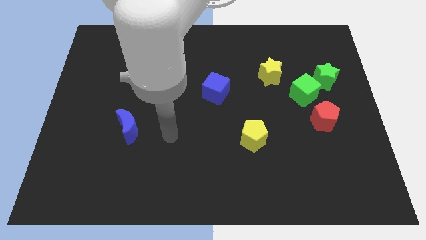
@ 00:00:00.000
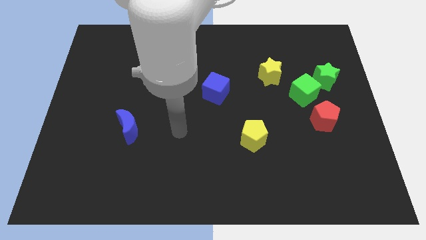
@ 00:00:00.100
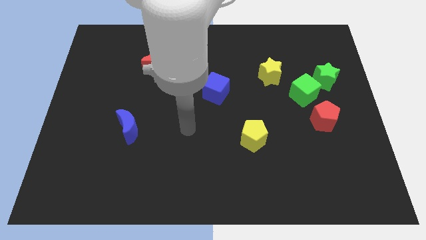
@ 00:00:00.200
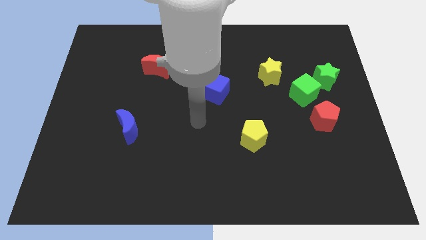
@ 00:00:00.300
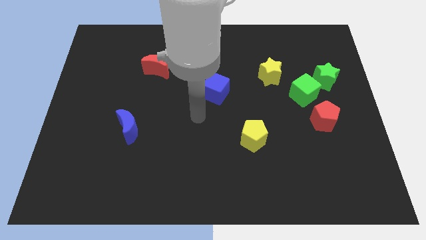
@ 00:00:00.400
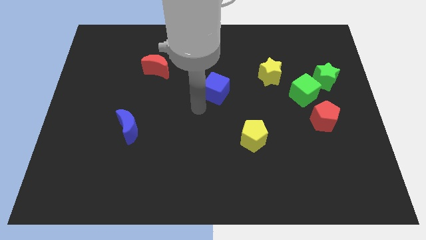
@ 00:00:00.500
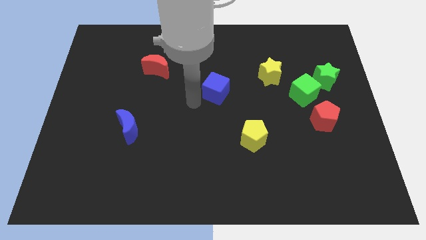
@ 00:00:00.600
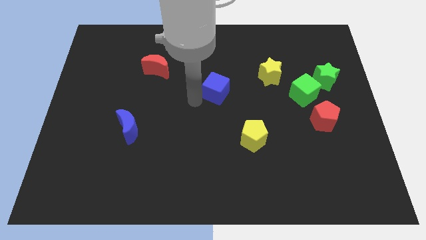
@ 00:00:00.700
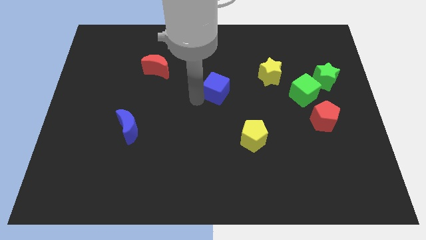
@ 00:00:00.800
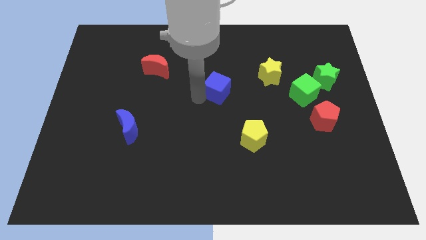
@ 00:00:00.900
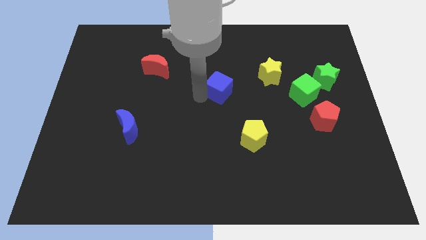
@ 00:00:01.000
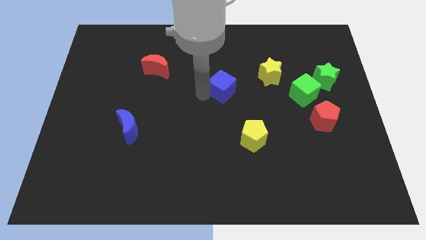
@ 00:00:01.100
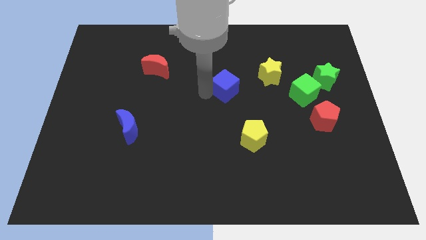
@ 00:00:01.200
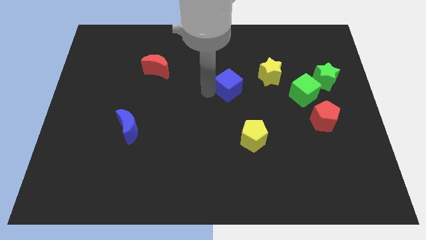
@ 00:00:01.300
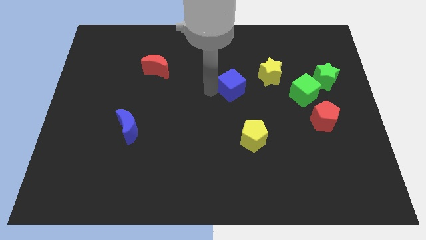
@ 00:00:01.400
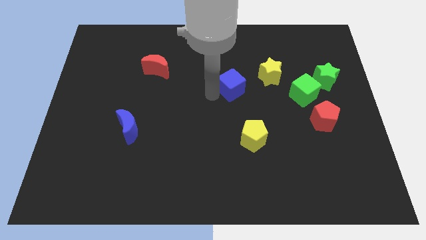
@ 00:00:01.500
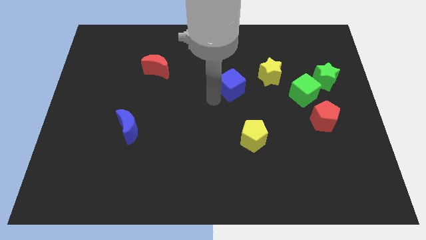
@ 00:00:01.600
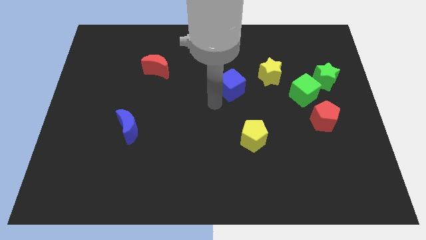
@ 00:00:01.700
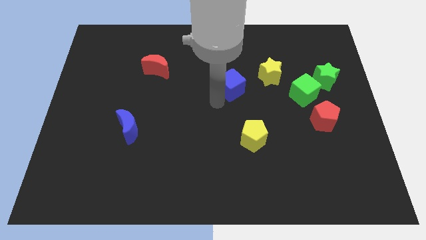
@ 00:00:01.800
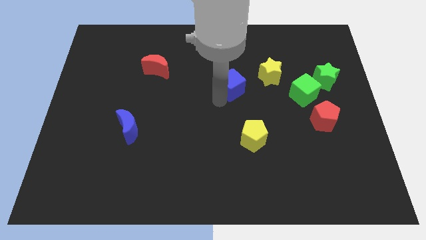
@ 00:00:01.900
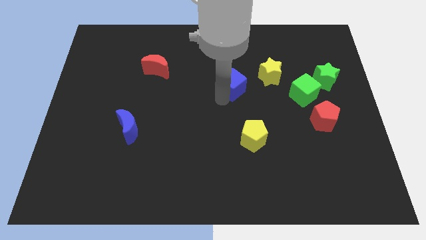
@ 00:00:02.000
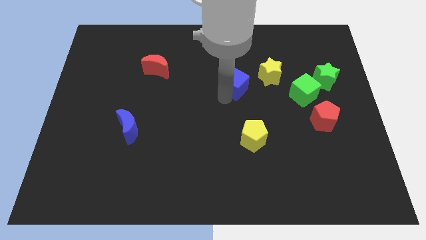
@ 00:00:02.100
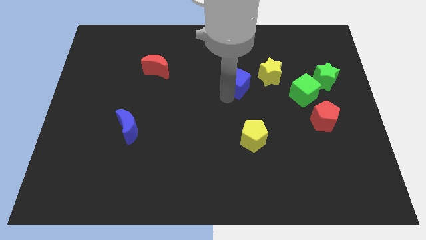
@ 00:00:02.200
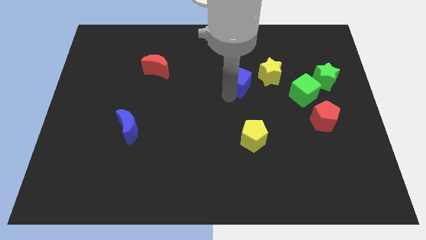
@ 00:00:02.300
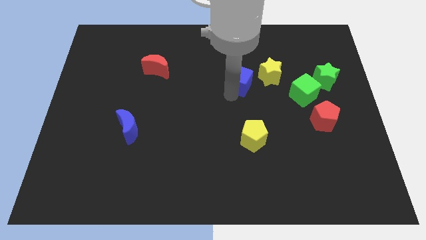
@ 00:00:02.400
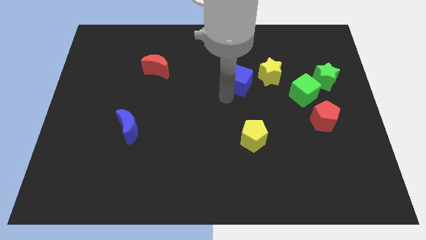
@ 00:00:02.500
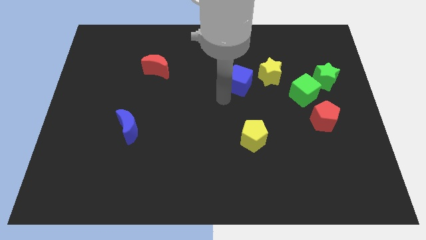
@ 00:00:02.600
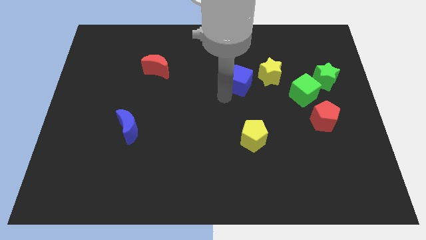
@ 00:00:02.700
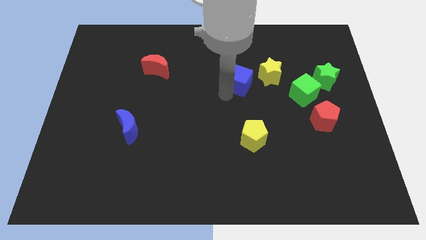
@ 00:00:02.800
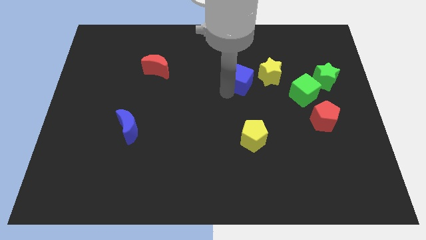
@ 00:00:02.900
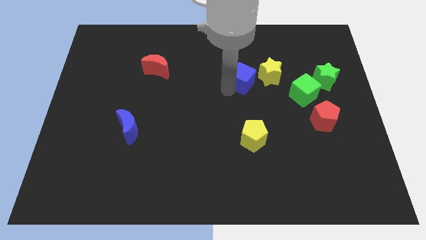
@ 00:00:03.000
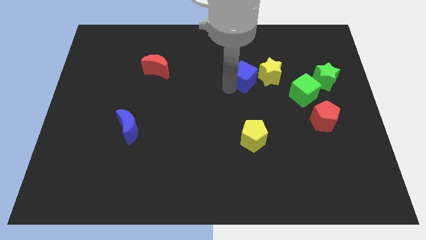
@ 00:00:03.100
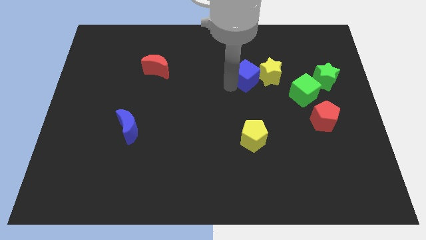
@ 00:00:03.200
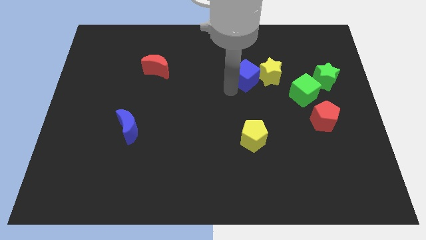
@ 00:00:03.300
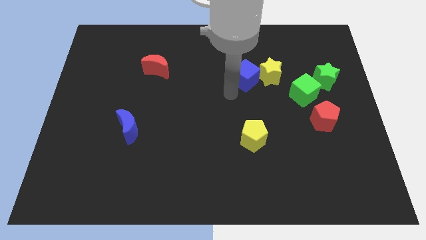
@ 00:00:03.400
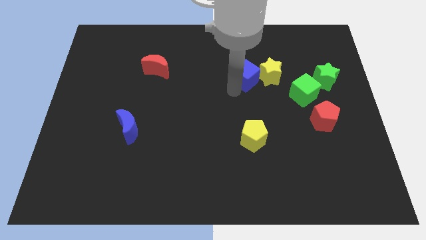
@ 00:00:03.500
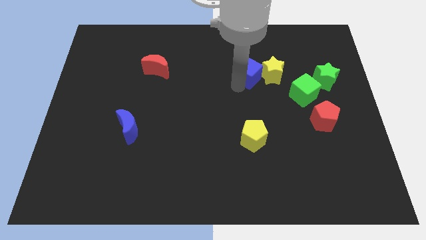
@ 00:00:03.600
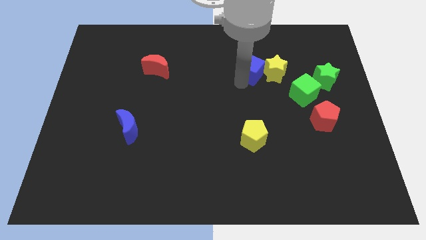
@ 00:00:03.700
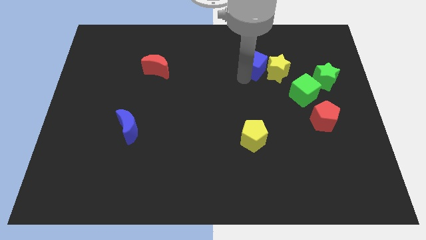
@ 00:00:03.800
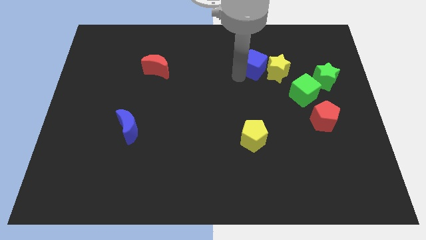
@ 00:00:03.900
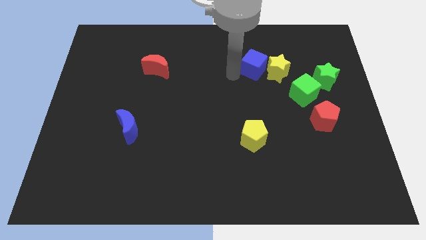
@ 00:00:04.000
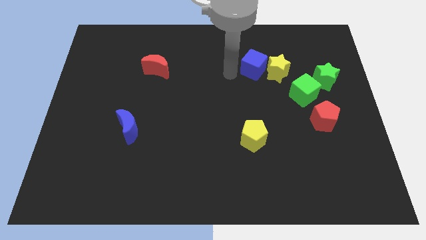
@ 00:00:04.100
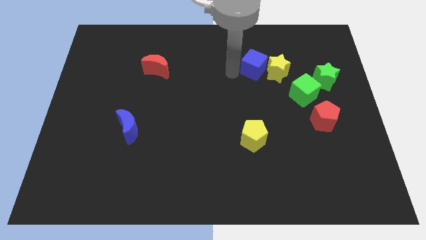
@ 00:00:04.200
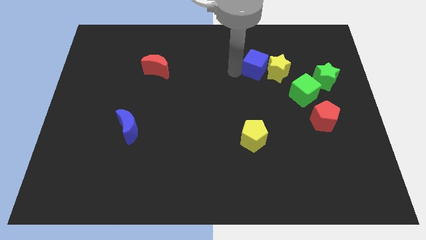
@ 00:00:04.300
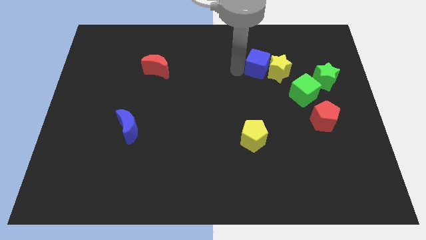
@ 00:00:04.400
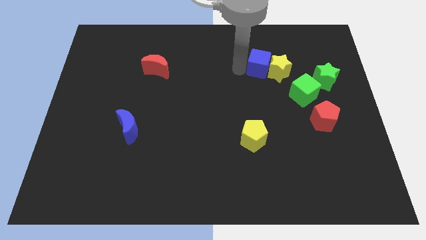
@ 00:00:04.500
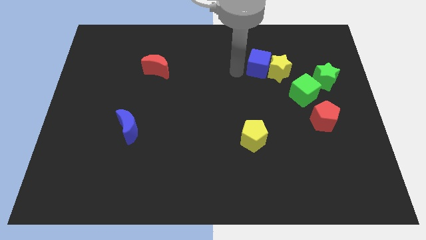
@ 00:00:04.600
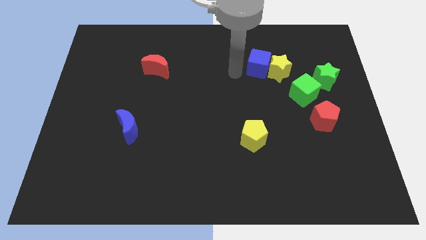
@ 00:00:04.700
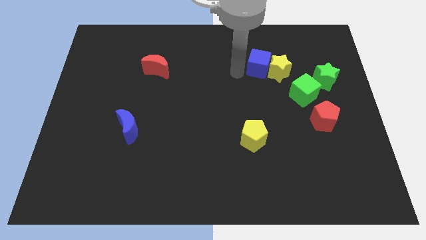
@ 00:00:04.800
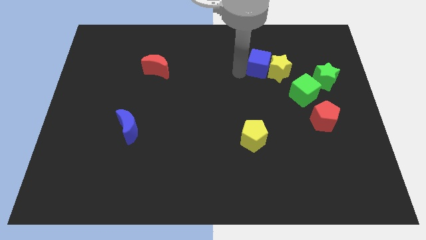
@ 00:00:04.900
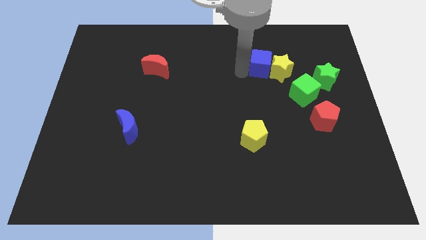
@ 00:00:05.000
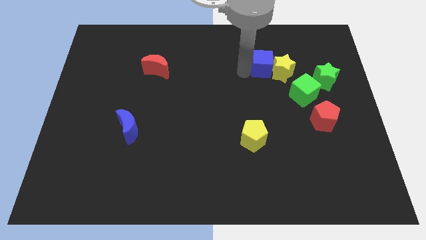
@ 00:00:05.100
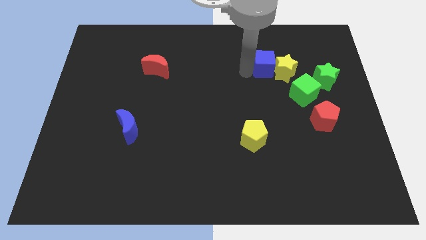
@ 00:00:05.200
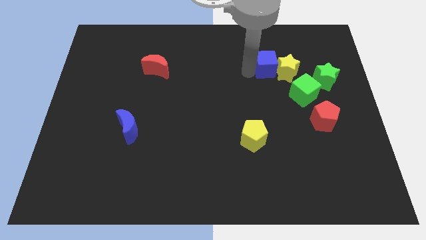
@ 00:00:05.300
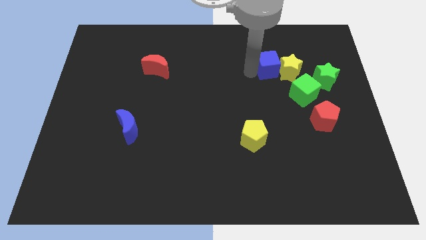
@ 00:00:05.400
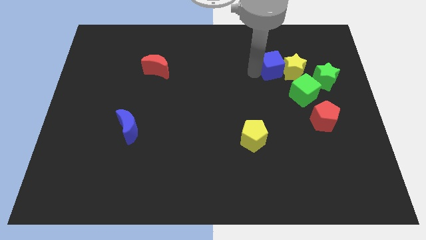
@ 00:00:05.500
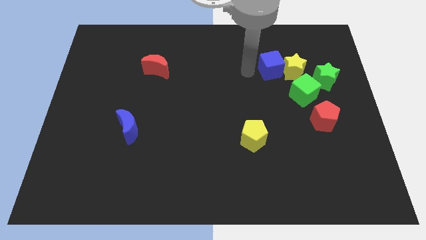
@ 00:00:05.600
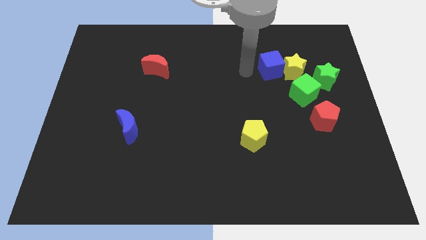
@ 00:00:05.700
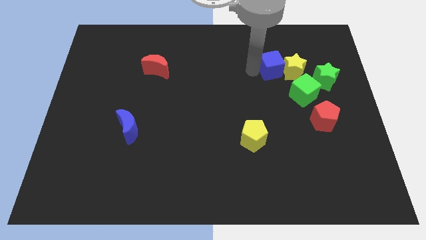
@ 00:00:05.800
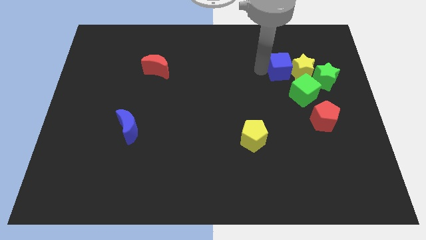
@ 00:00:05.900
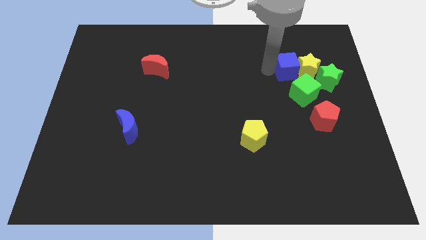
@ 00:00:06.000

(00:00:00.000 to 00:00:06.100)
slide the blue cube diagonally up and to the left of the green star

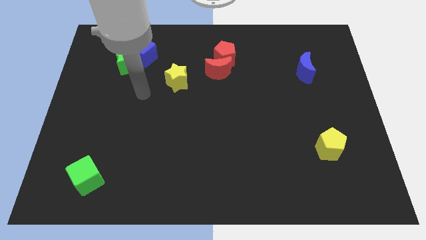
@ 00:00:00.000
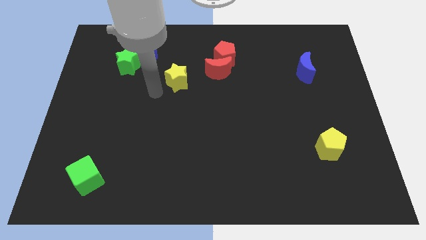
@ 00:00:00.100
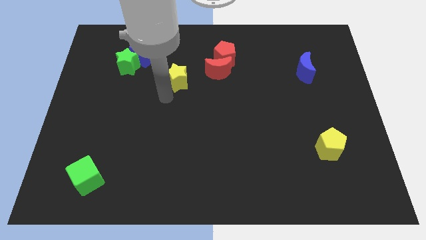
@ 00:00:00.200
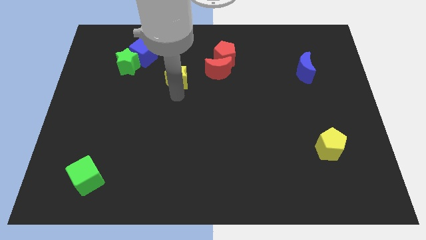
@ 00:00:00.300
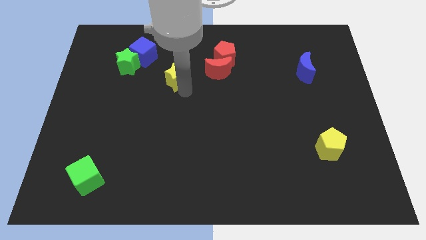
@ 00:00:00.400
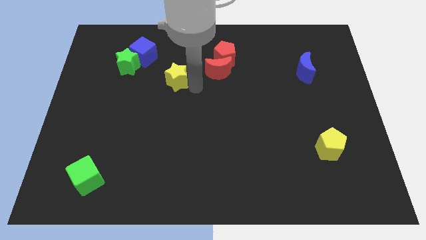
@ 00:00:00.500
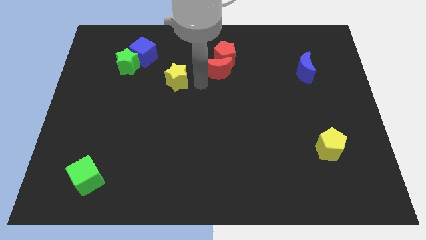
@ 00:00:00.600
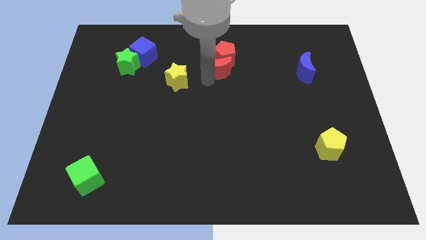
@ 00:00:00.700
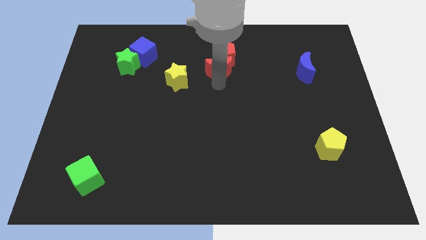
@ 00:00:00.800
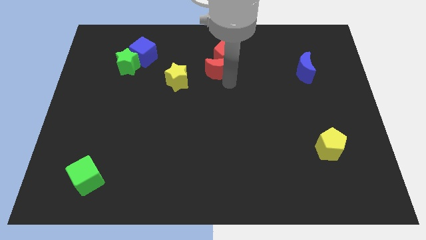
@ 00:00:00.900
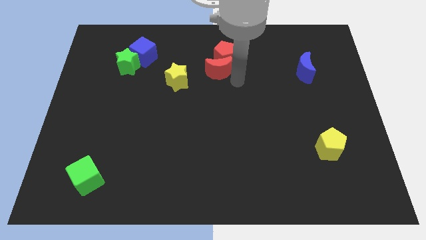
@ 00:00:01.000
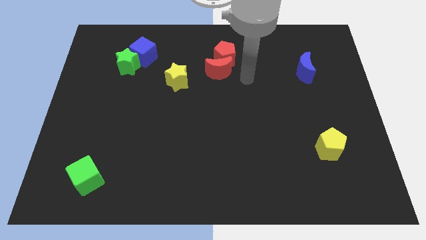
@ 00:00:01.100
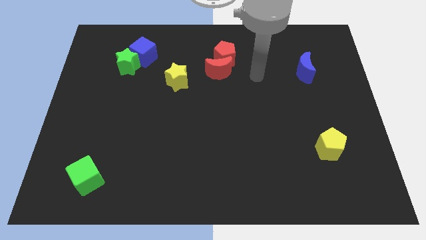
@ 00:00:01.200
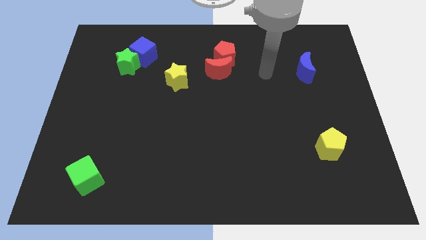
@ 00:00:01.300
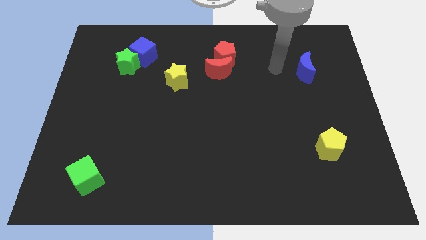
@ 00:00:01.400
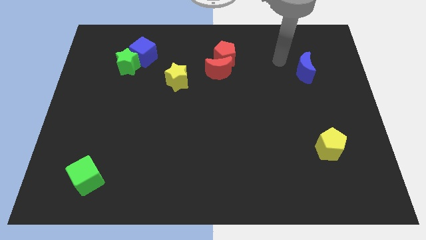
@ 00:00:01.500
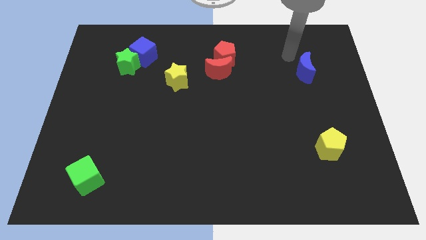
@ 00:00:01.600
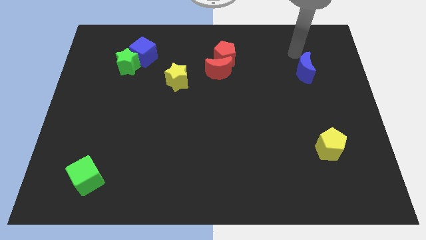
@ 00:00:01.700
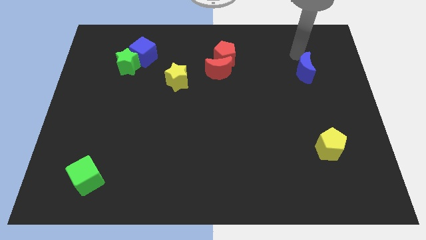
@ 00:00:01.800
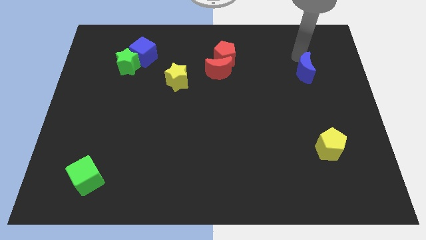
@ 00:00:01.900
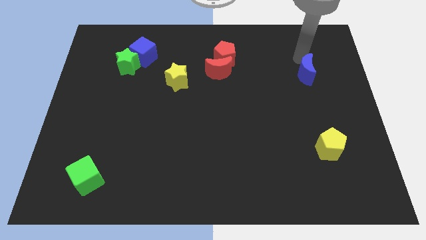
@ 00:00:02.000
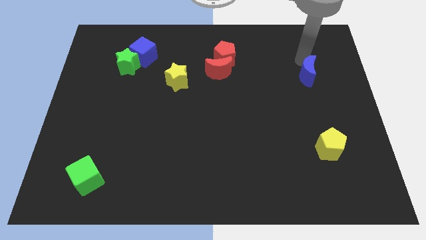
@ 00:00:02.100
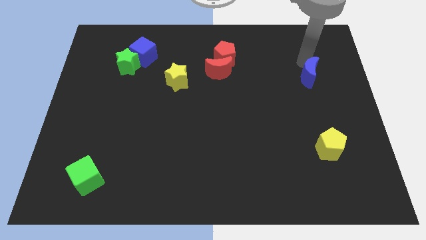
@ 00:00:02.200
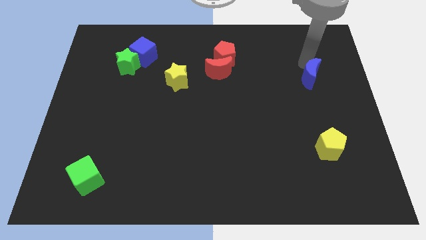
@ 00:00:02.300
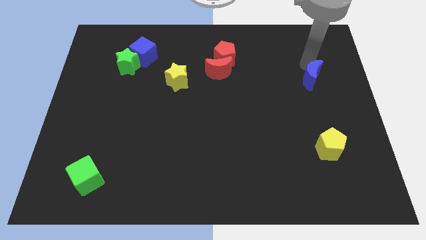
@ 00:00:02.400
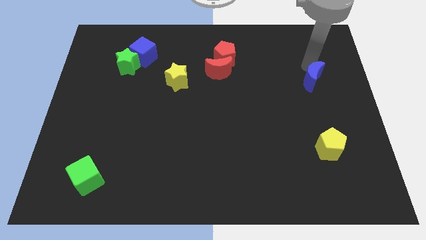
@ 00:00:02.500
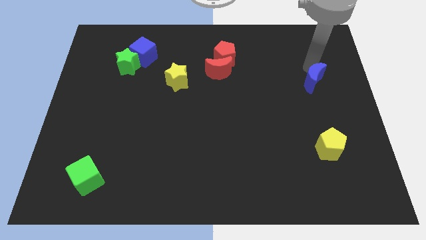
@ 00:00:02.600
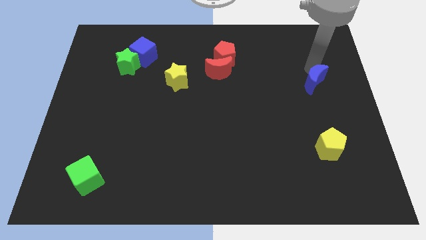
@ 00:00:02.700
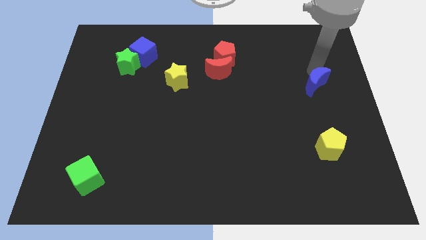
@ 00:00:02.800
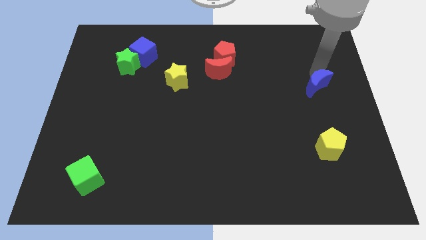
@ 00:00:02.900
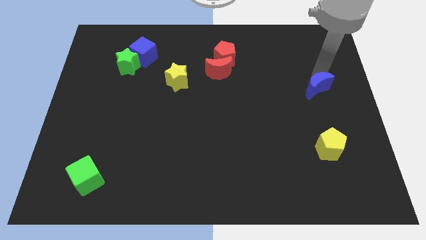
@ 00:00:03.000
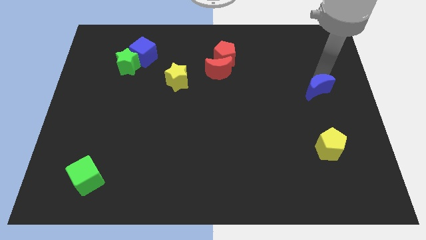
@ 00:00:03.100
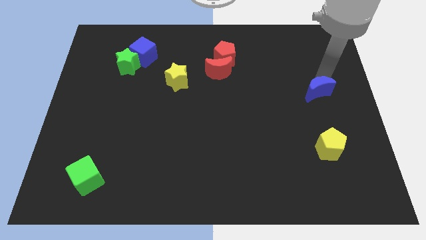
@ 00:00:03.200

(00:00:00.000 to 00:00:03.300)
slide the blue moon to the top side of the yellow pentagon
